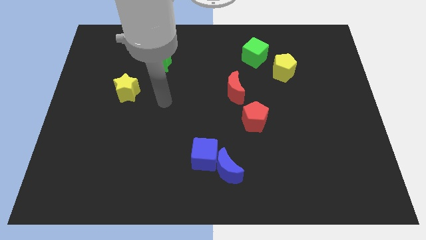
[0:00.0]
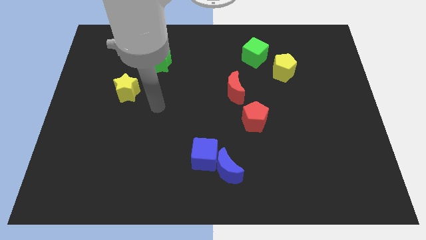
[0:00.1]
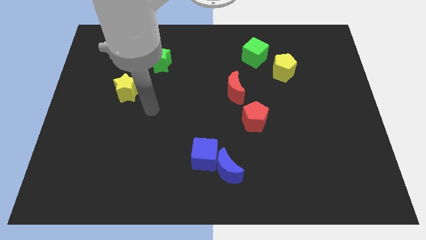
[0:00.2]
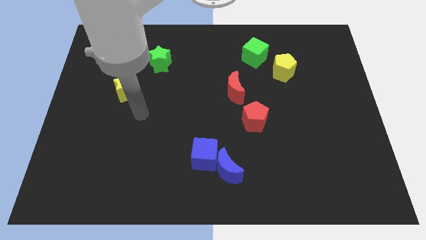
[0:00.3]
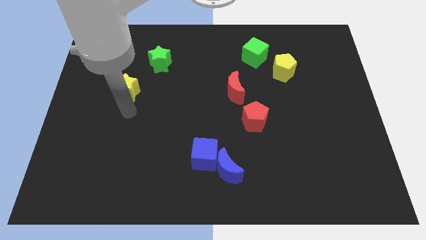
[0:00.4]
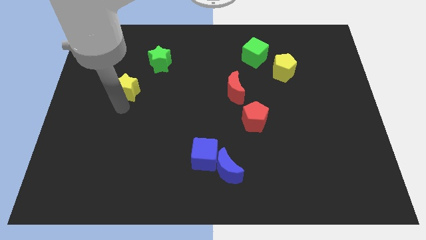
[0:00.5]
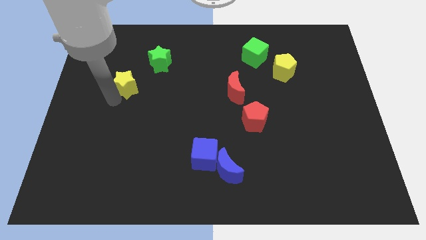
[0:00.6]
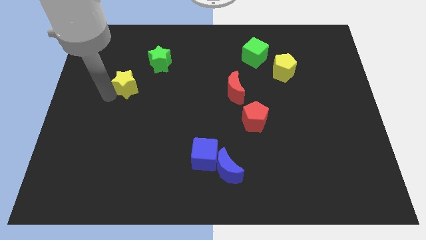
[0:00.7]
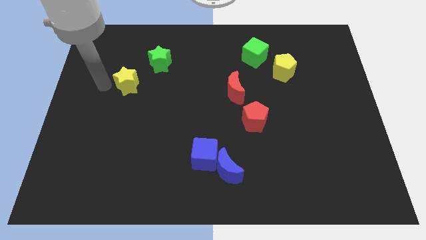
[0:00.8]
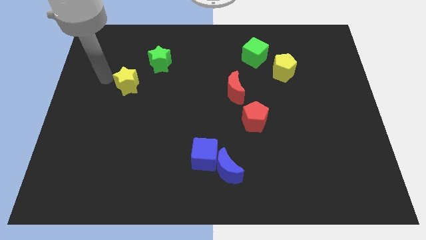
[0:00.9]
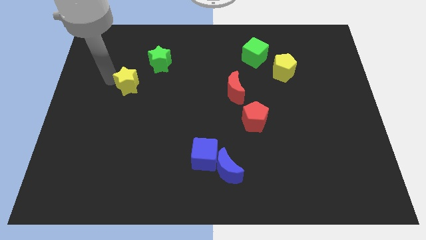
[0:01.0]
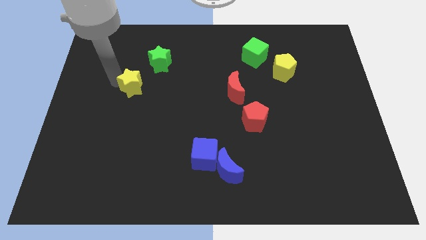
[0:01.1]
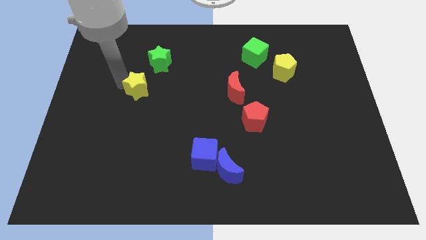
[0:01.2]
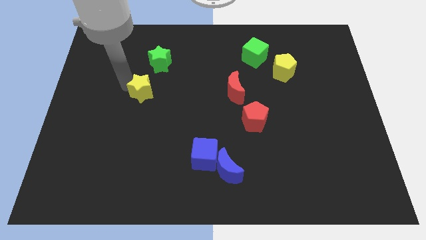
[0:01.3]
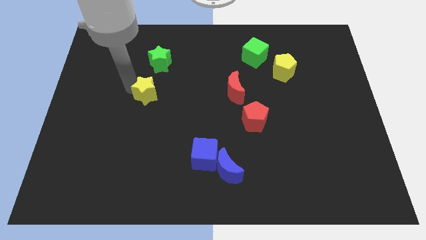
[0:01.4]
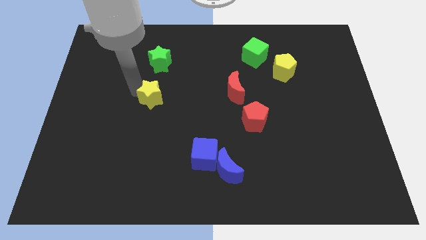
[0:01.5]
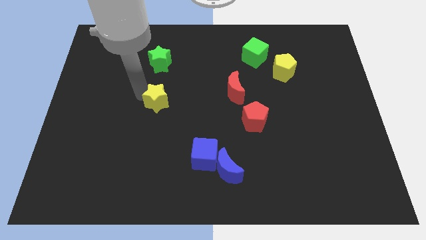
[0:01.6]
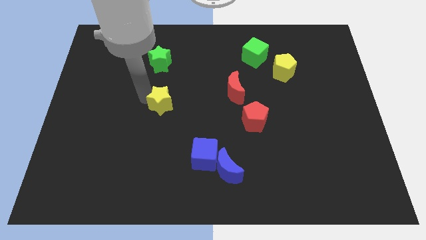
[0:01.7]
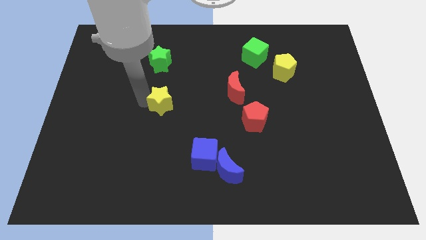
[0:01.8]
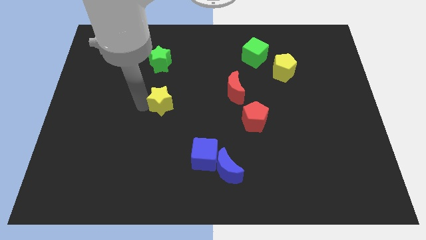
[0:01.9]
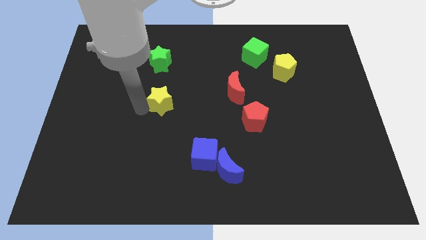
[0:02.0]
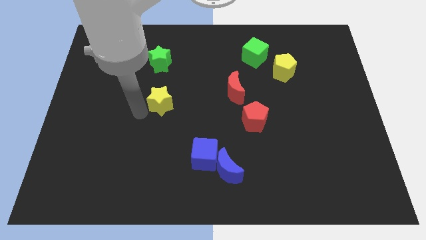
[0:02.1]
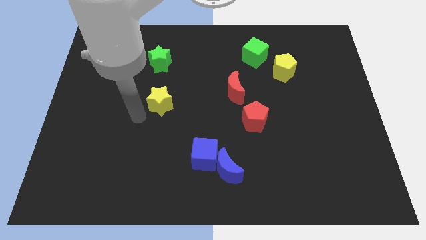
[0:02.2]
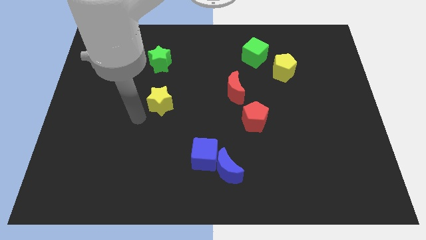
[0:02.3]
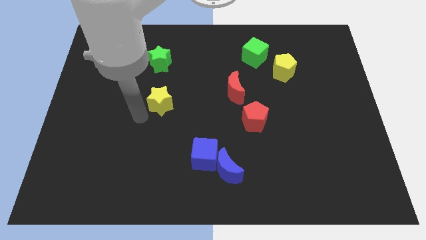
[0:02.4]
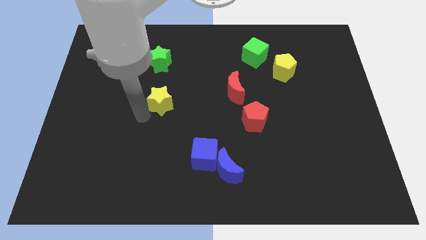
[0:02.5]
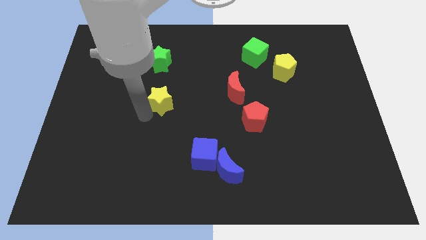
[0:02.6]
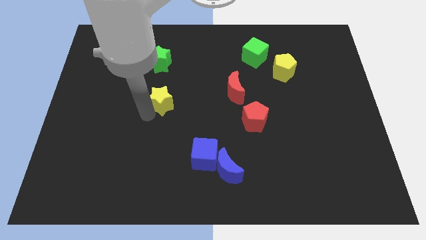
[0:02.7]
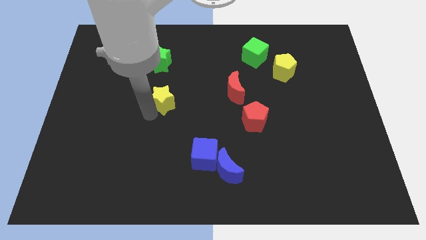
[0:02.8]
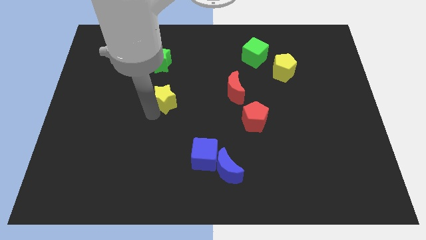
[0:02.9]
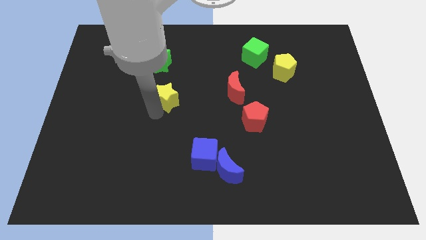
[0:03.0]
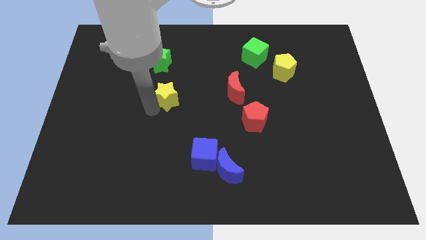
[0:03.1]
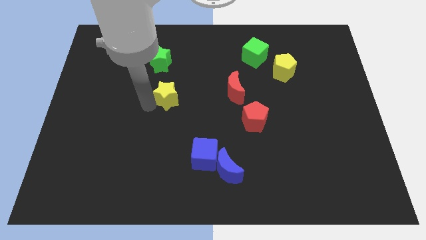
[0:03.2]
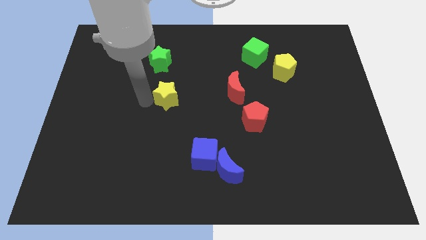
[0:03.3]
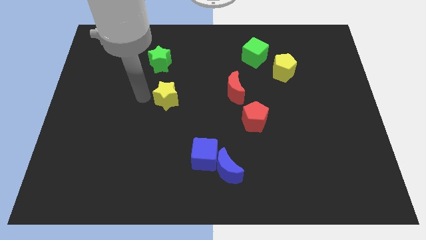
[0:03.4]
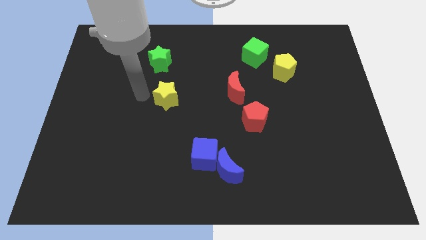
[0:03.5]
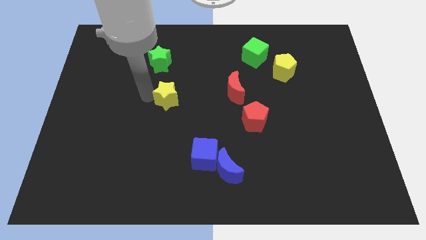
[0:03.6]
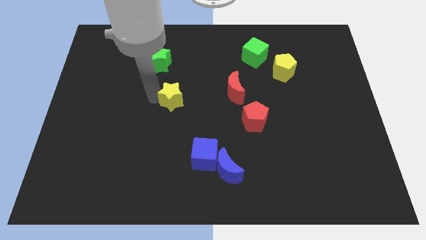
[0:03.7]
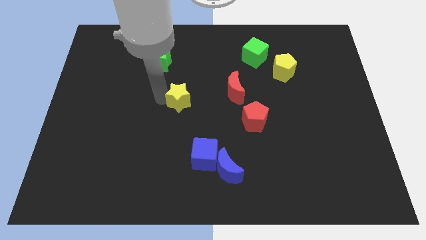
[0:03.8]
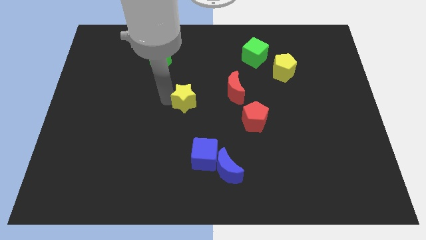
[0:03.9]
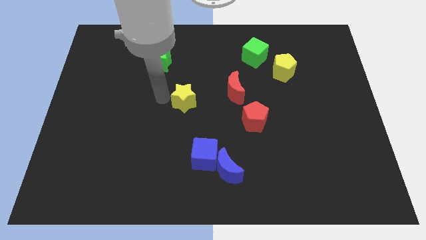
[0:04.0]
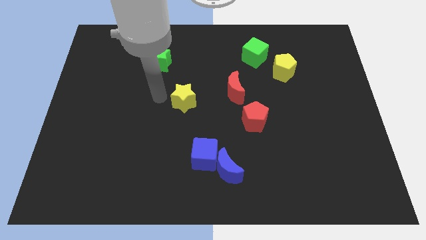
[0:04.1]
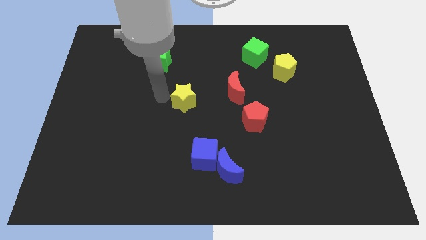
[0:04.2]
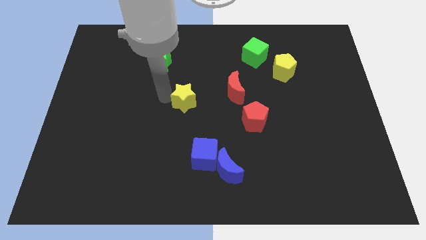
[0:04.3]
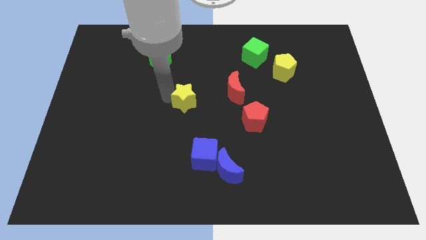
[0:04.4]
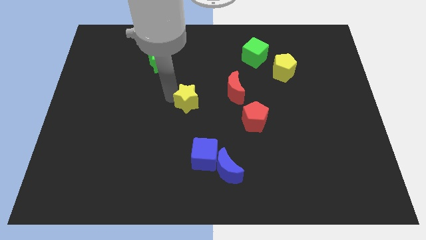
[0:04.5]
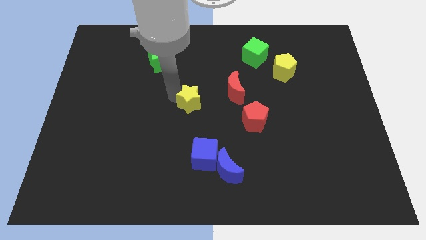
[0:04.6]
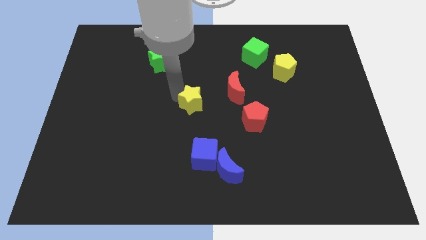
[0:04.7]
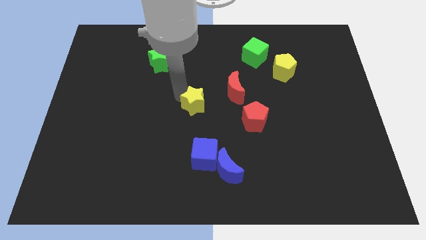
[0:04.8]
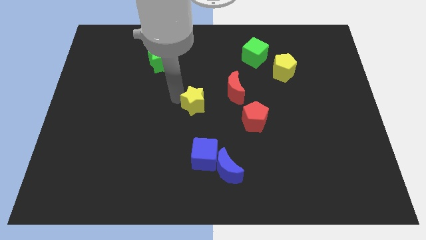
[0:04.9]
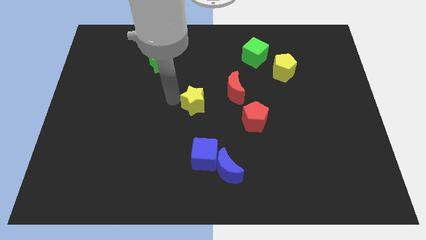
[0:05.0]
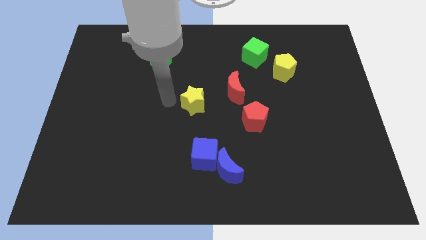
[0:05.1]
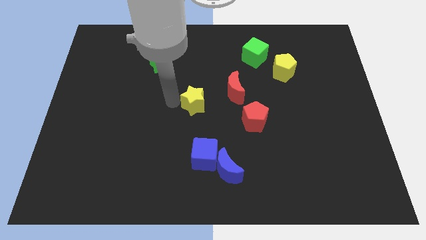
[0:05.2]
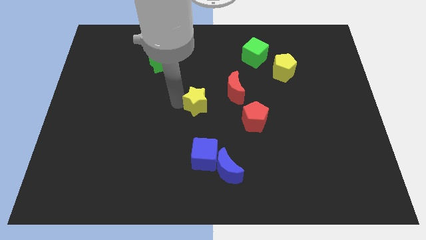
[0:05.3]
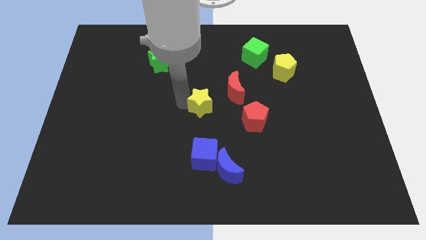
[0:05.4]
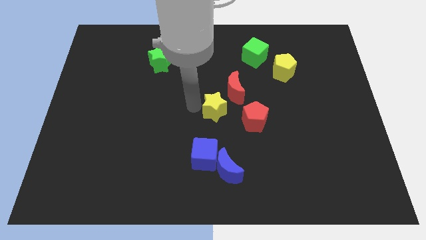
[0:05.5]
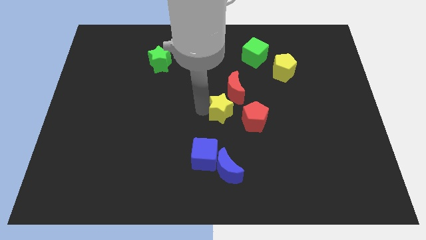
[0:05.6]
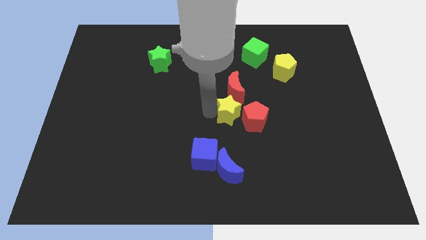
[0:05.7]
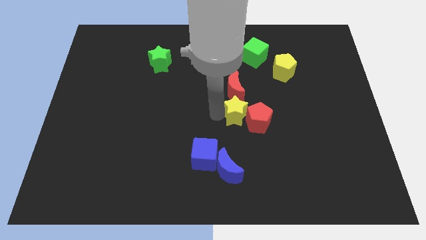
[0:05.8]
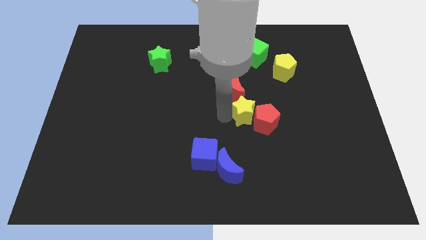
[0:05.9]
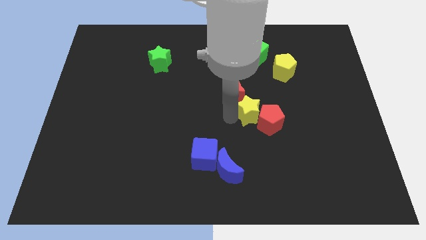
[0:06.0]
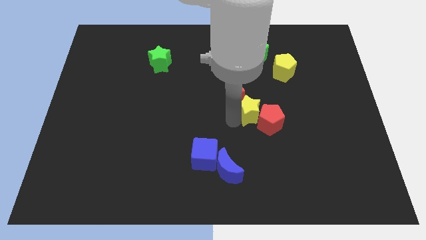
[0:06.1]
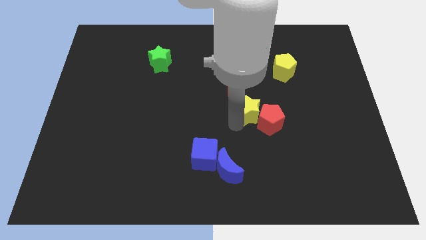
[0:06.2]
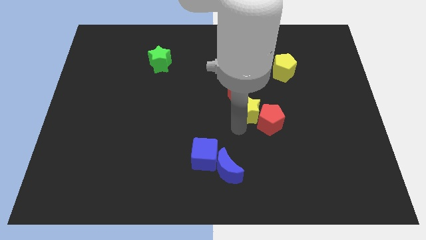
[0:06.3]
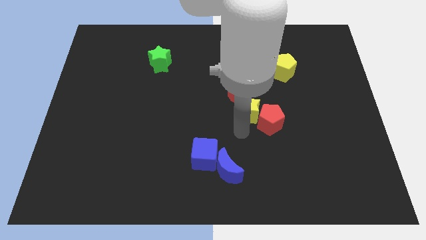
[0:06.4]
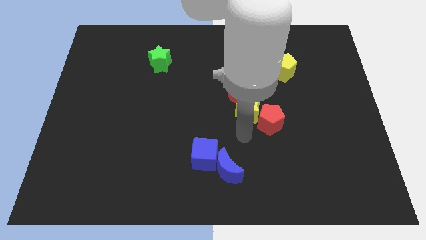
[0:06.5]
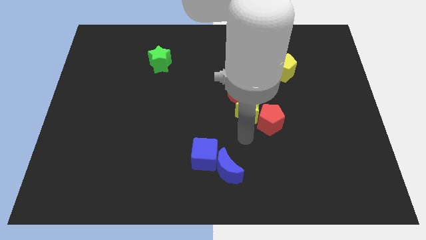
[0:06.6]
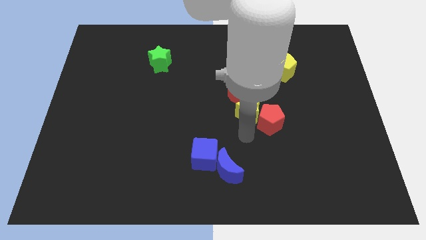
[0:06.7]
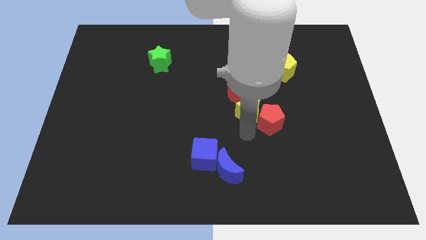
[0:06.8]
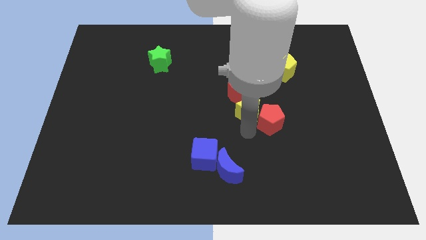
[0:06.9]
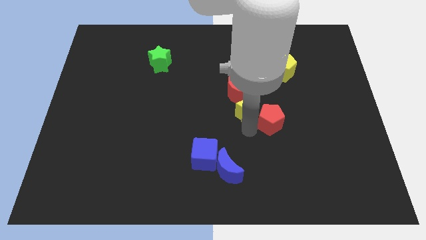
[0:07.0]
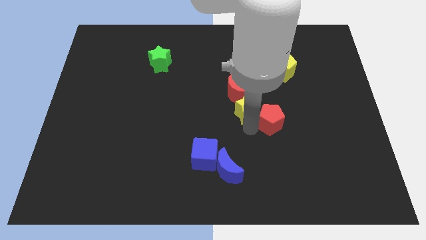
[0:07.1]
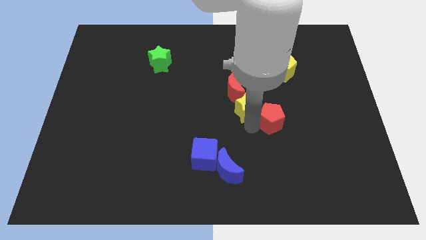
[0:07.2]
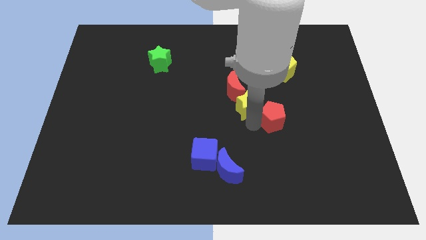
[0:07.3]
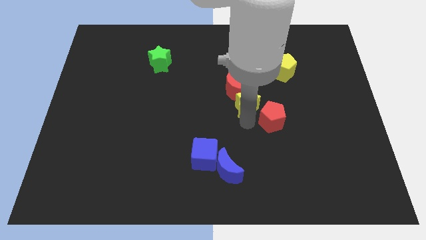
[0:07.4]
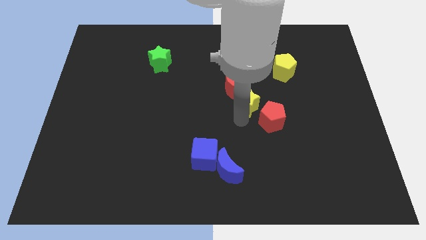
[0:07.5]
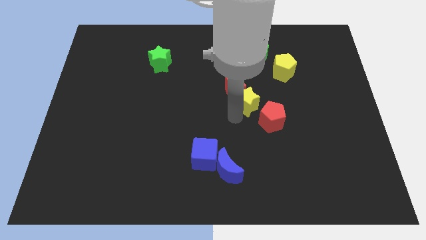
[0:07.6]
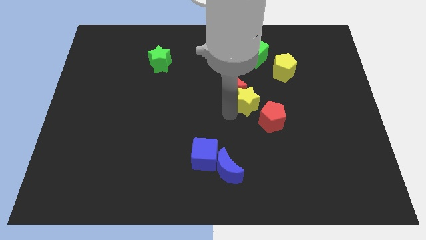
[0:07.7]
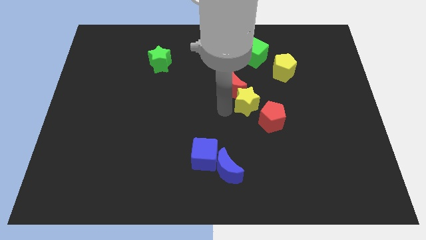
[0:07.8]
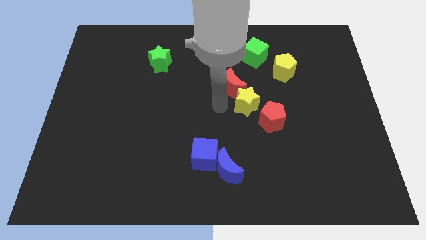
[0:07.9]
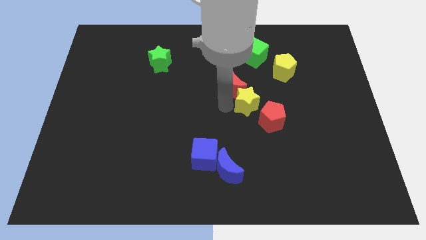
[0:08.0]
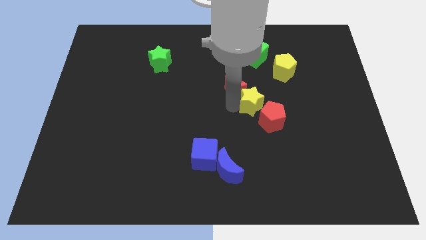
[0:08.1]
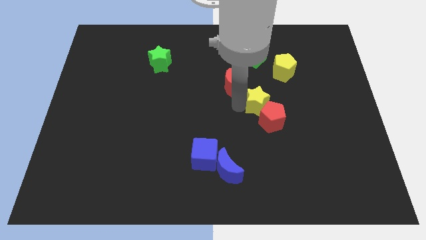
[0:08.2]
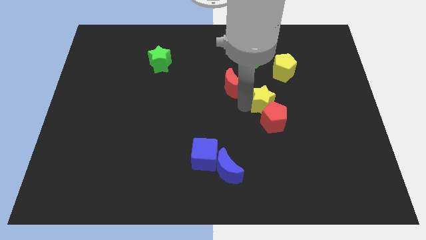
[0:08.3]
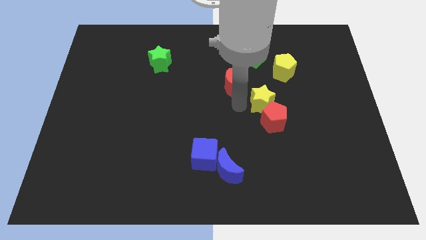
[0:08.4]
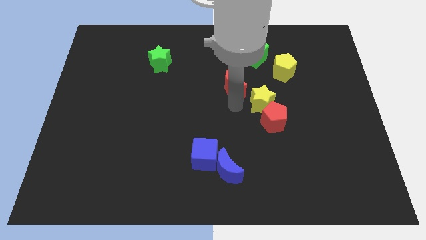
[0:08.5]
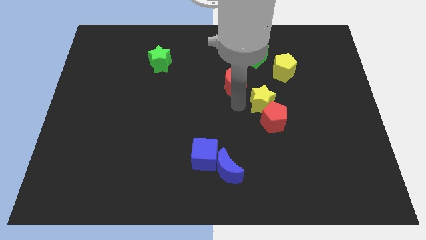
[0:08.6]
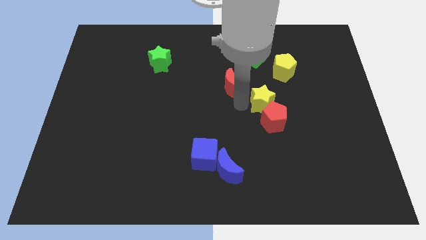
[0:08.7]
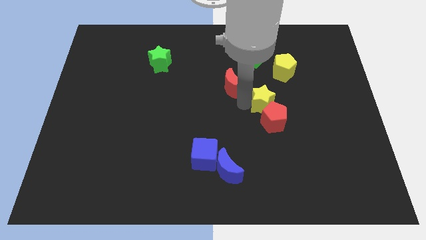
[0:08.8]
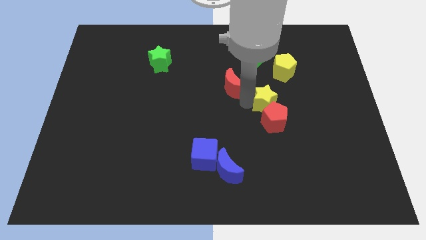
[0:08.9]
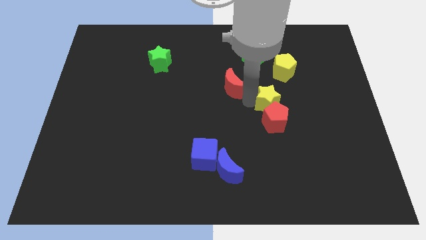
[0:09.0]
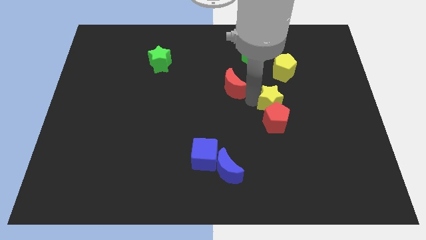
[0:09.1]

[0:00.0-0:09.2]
put the yellow star below the yellow pentagon
